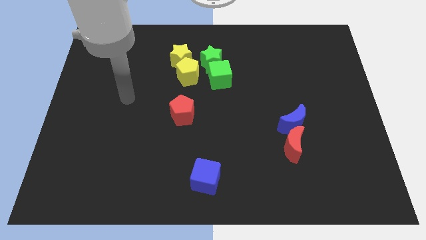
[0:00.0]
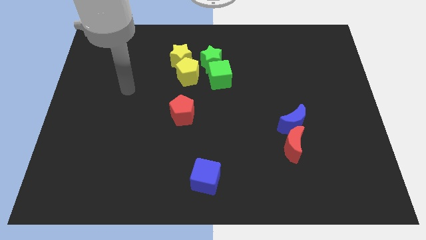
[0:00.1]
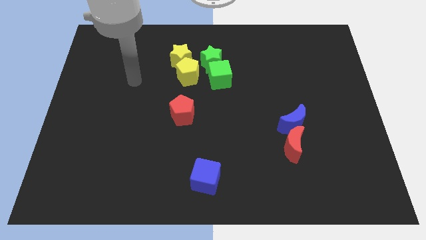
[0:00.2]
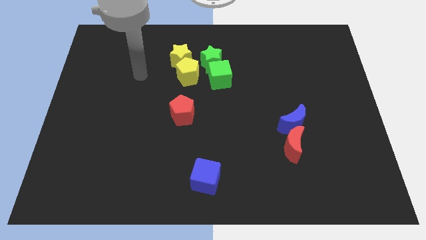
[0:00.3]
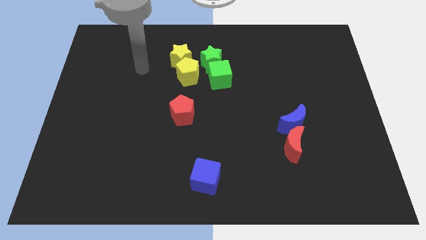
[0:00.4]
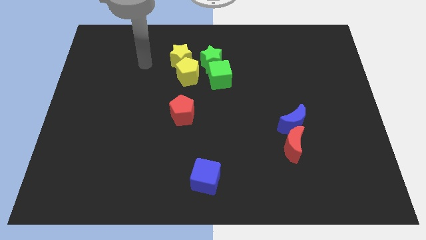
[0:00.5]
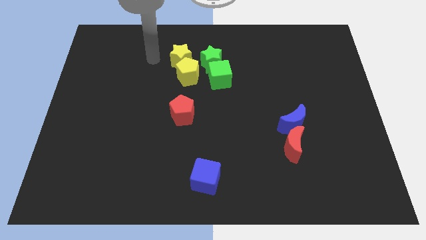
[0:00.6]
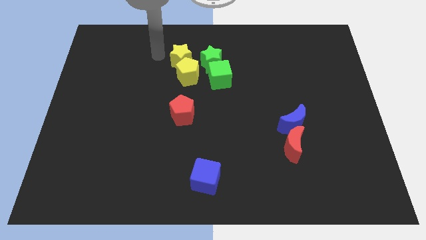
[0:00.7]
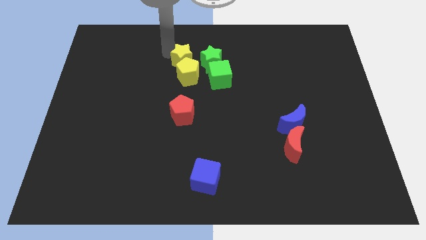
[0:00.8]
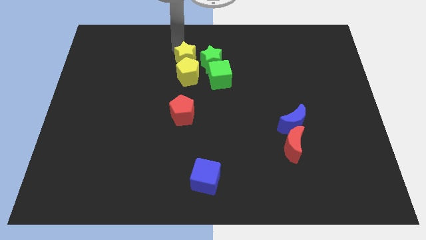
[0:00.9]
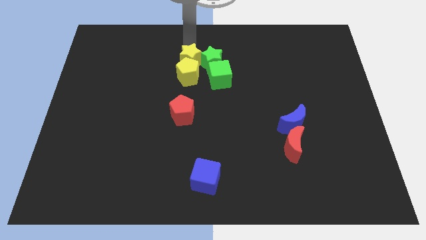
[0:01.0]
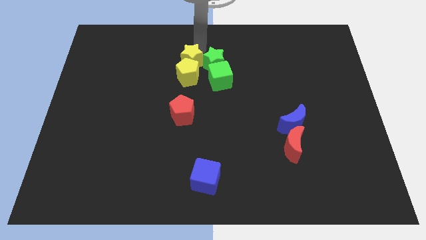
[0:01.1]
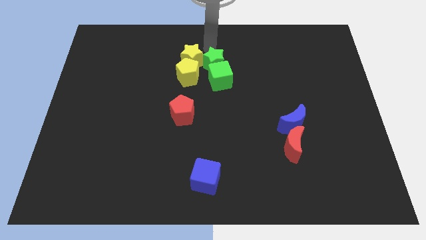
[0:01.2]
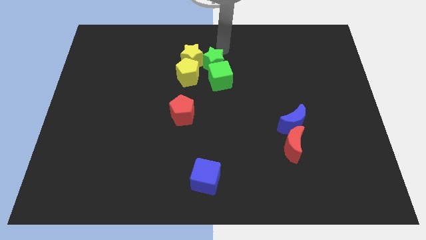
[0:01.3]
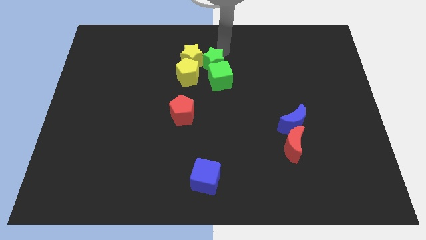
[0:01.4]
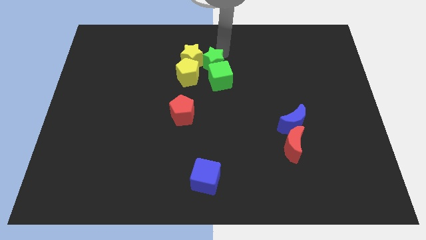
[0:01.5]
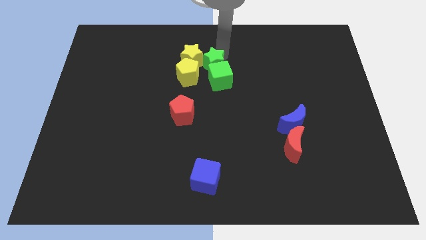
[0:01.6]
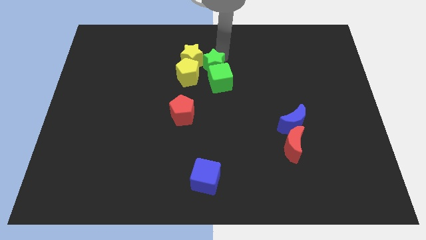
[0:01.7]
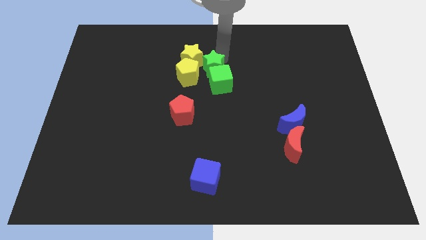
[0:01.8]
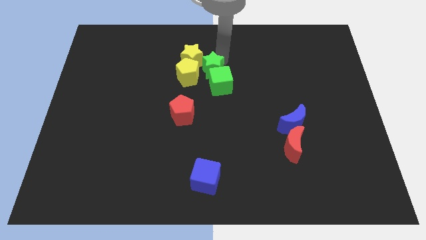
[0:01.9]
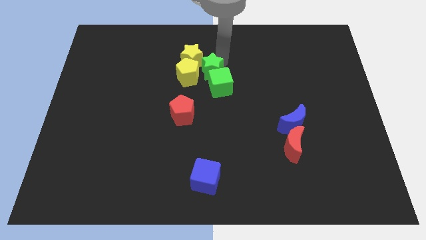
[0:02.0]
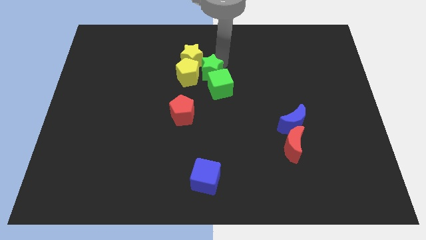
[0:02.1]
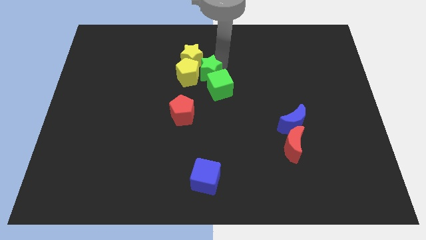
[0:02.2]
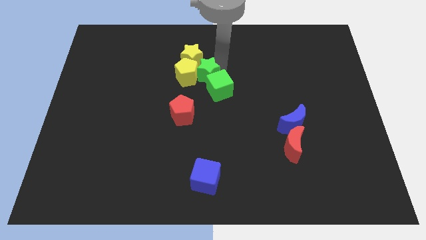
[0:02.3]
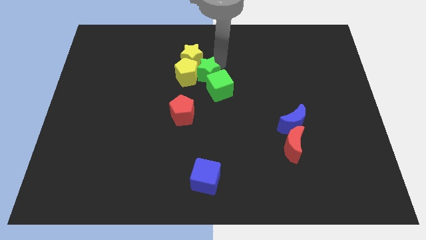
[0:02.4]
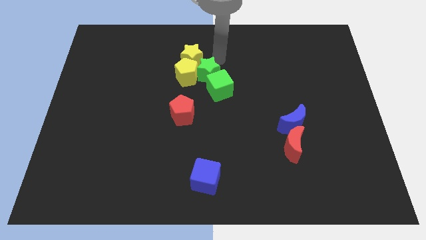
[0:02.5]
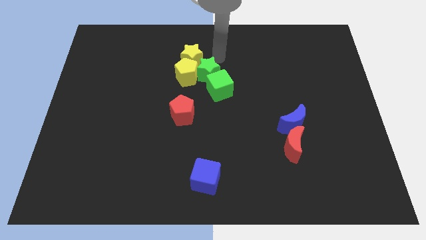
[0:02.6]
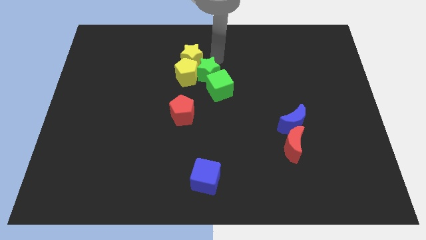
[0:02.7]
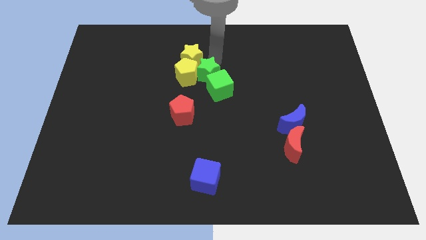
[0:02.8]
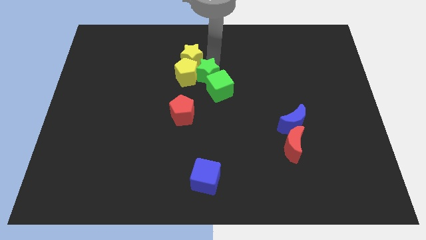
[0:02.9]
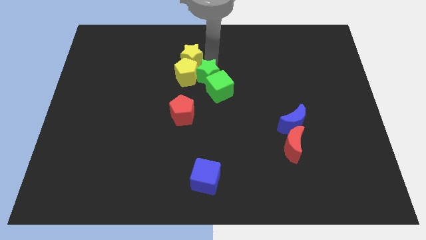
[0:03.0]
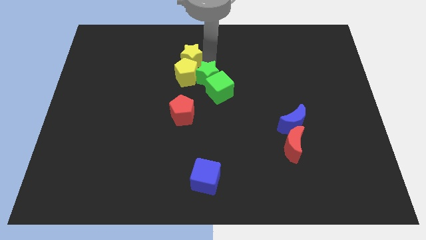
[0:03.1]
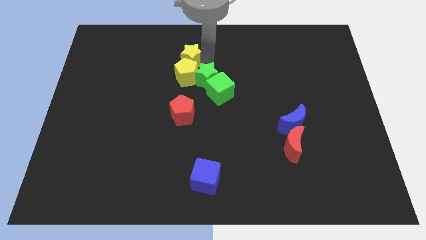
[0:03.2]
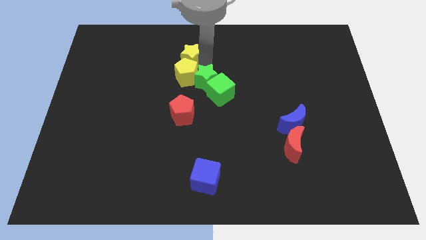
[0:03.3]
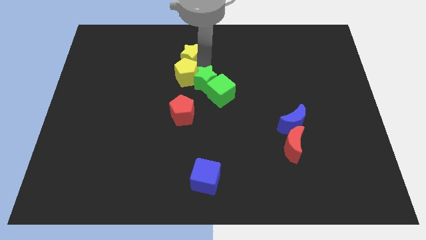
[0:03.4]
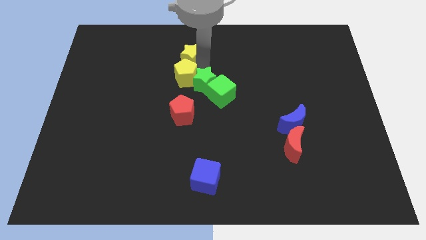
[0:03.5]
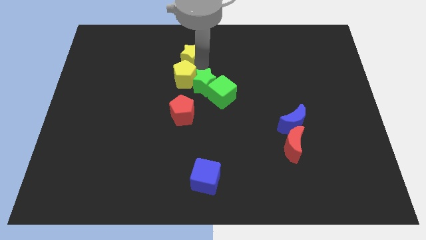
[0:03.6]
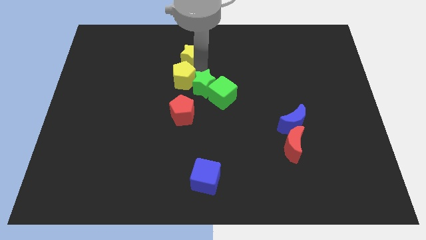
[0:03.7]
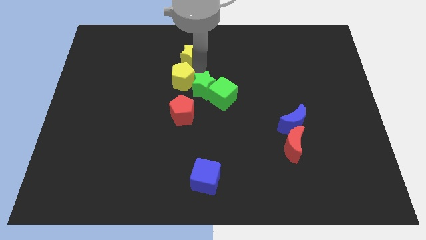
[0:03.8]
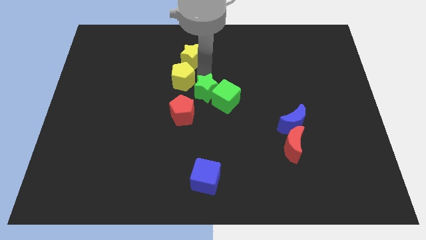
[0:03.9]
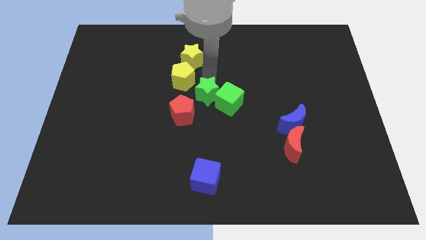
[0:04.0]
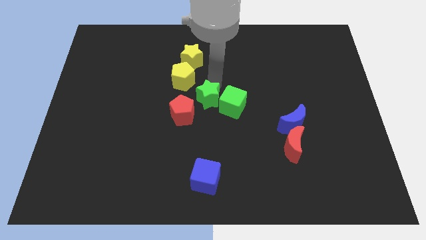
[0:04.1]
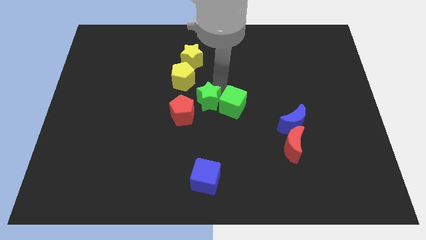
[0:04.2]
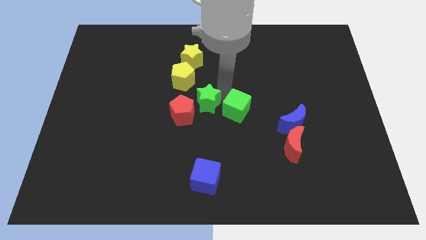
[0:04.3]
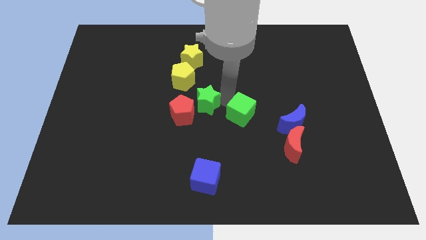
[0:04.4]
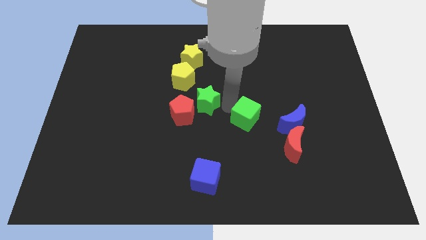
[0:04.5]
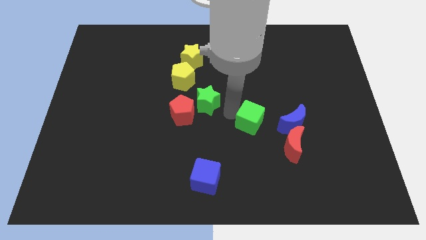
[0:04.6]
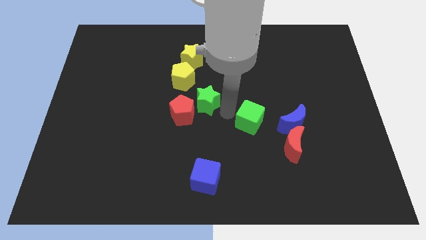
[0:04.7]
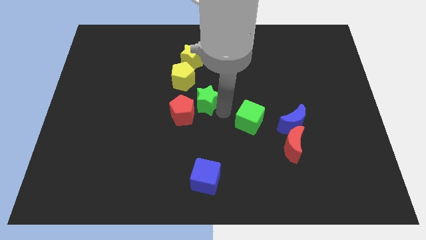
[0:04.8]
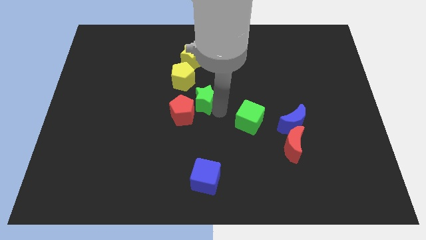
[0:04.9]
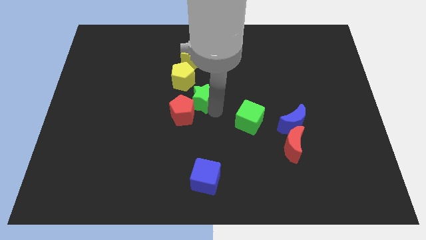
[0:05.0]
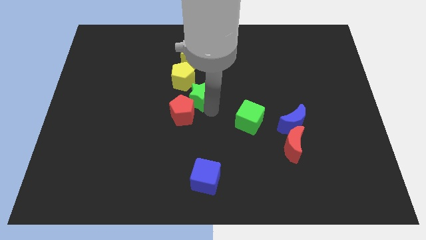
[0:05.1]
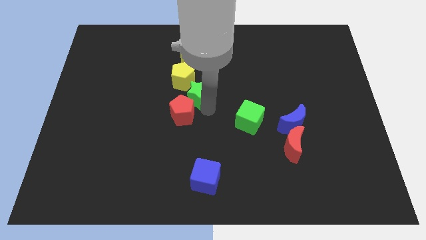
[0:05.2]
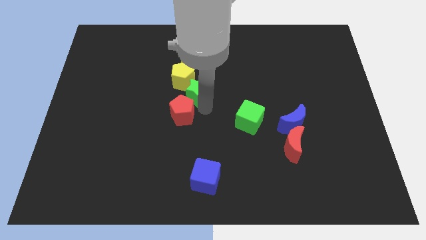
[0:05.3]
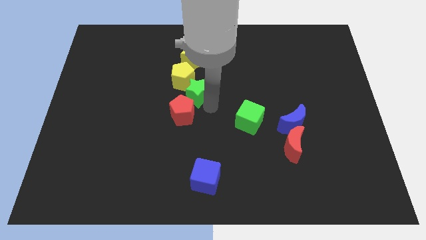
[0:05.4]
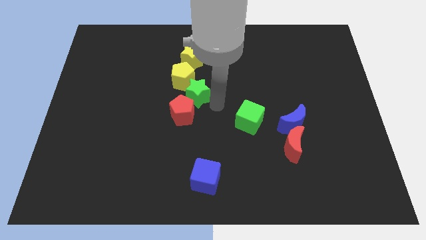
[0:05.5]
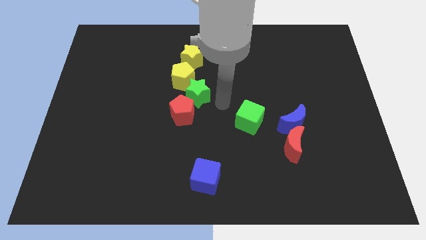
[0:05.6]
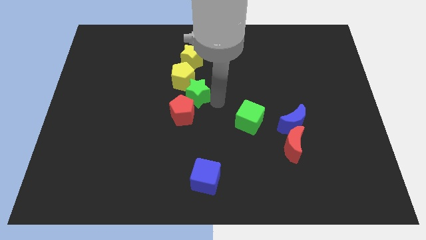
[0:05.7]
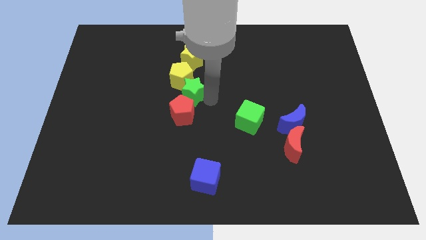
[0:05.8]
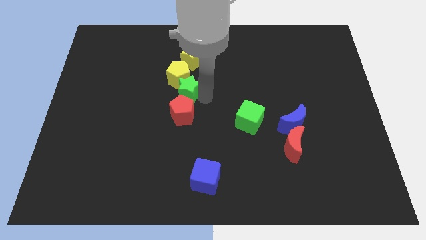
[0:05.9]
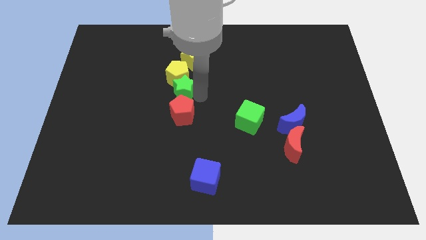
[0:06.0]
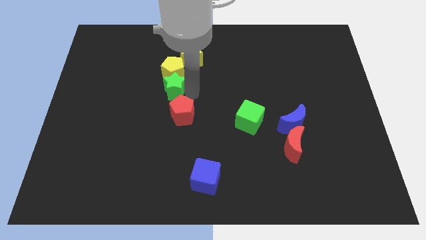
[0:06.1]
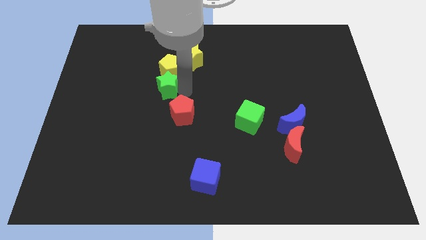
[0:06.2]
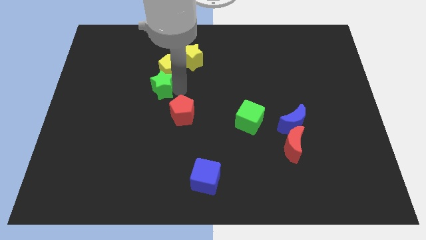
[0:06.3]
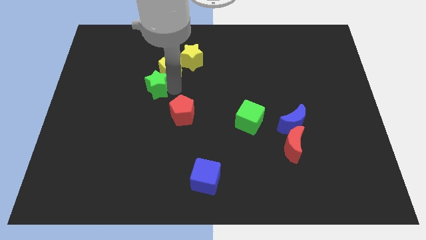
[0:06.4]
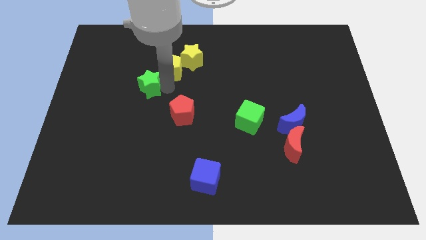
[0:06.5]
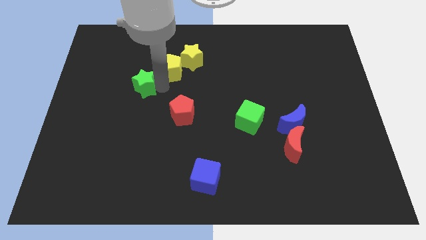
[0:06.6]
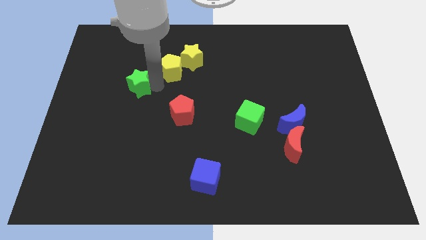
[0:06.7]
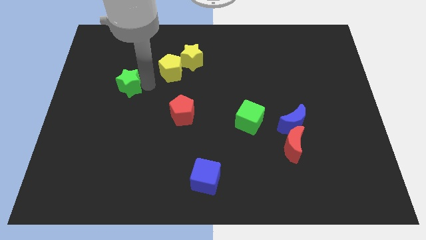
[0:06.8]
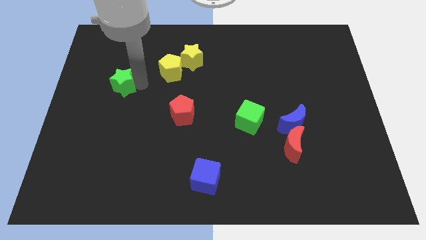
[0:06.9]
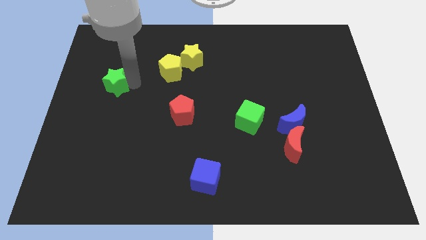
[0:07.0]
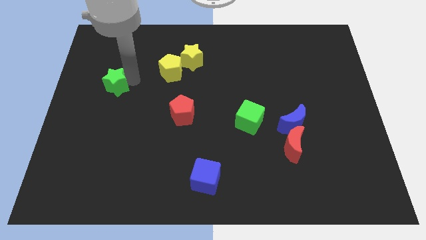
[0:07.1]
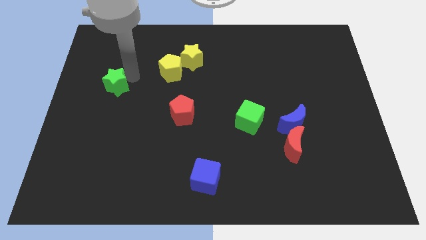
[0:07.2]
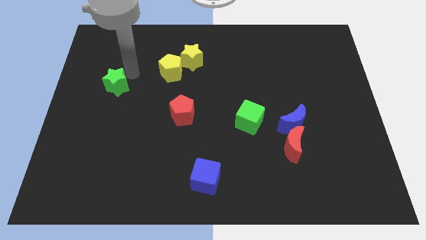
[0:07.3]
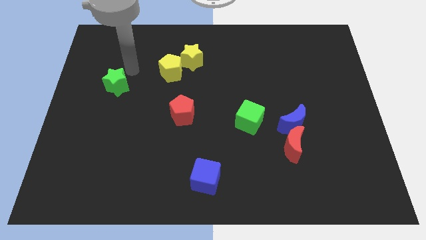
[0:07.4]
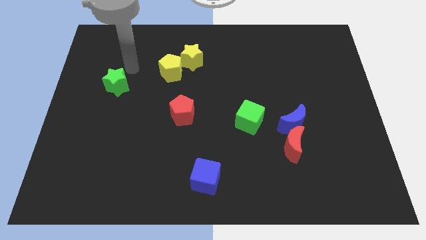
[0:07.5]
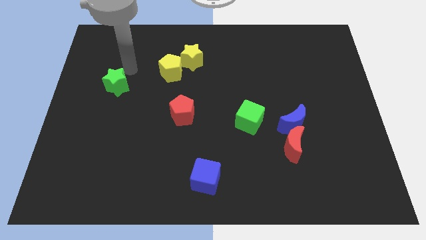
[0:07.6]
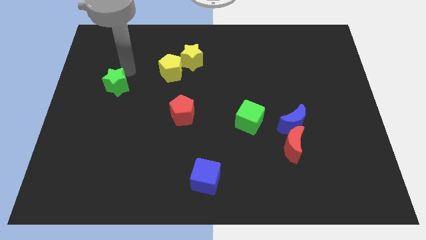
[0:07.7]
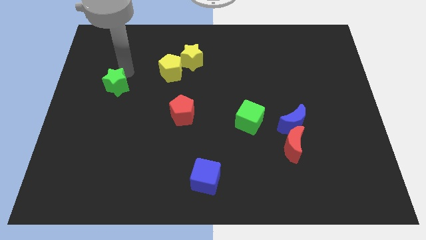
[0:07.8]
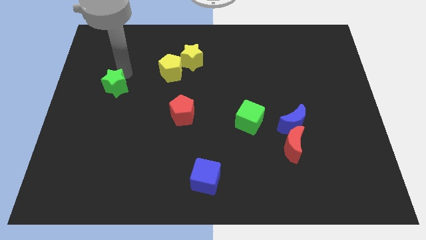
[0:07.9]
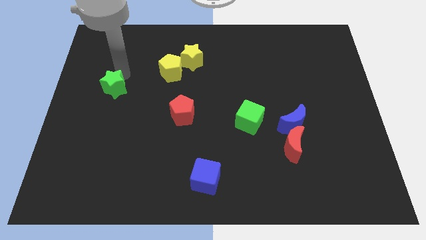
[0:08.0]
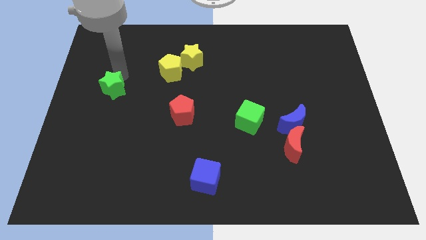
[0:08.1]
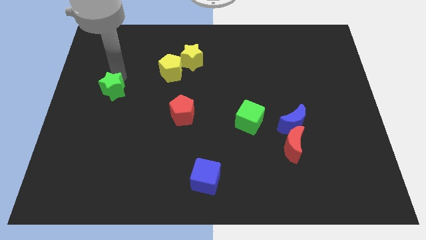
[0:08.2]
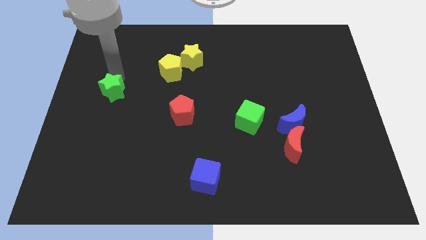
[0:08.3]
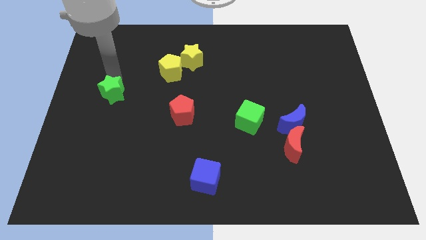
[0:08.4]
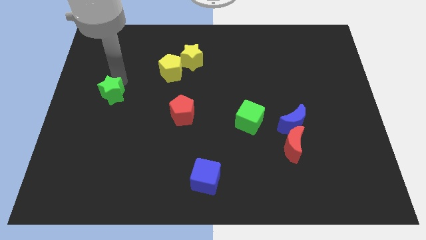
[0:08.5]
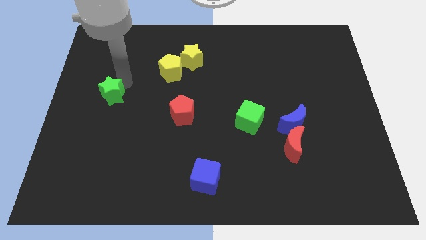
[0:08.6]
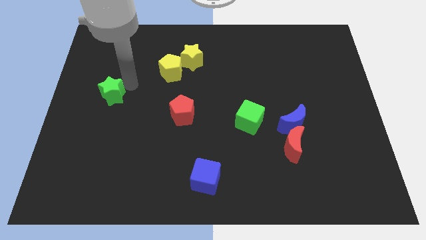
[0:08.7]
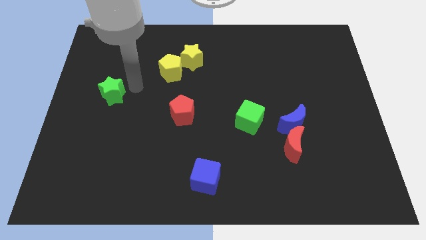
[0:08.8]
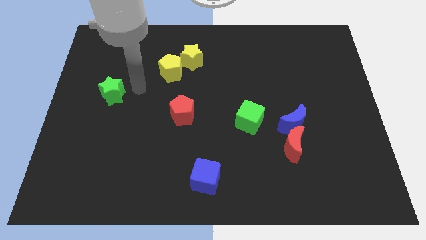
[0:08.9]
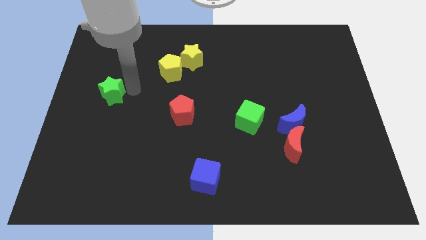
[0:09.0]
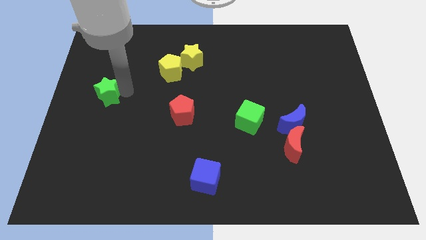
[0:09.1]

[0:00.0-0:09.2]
push the green star to the left side
